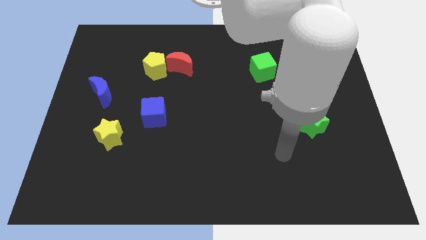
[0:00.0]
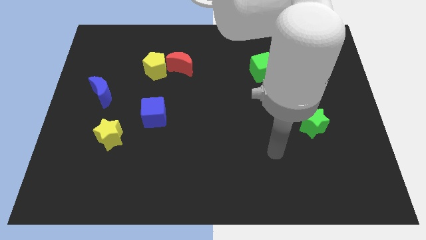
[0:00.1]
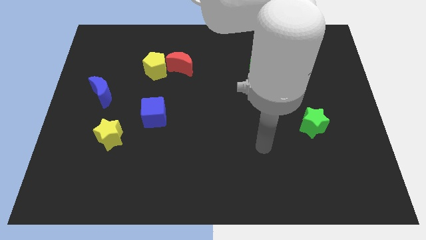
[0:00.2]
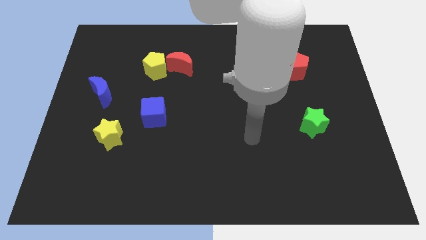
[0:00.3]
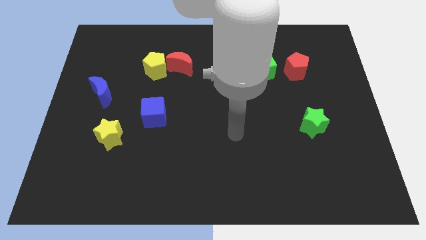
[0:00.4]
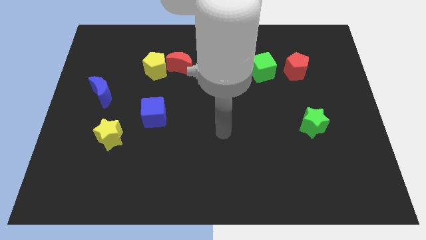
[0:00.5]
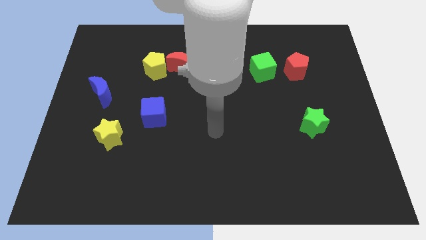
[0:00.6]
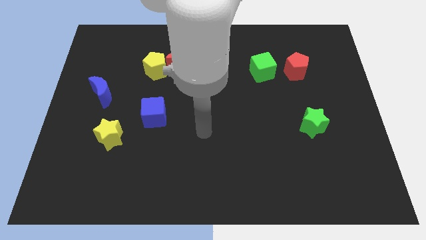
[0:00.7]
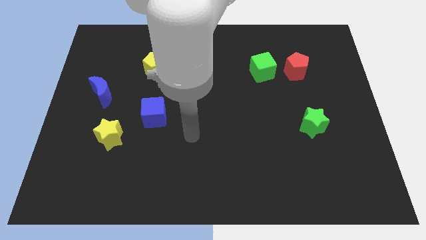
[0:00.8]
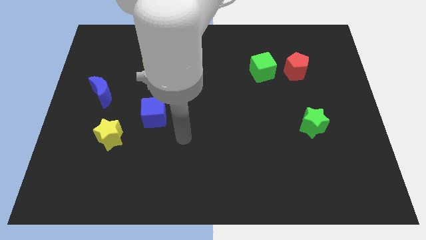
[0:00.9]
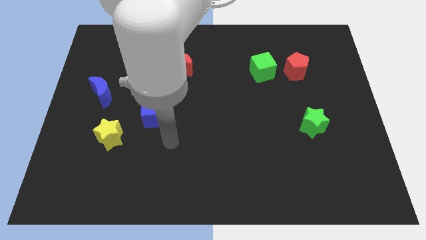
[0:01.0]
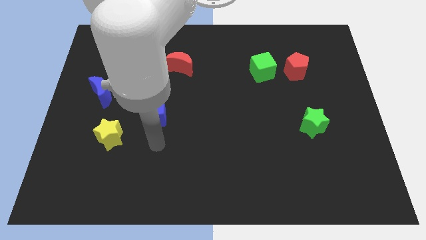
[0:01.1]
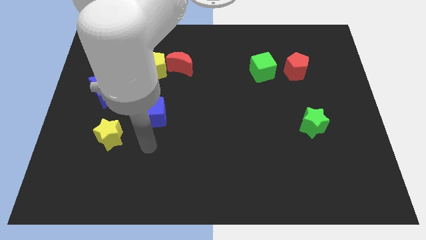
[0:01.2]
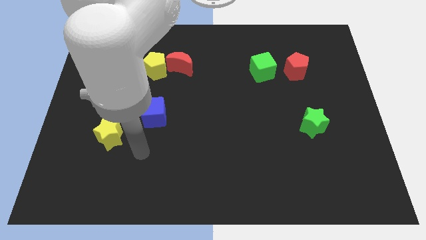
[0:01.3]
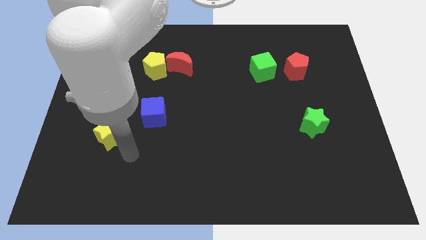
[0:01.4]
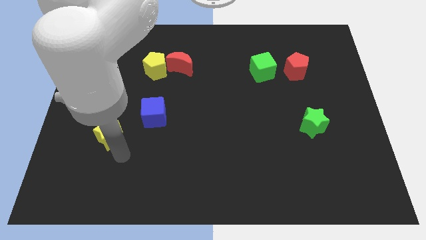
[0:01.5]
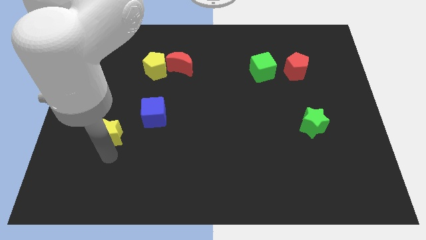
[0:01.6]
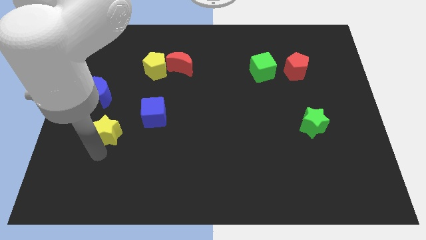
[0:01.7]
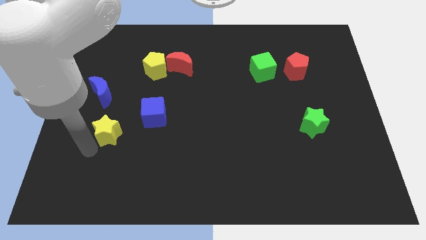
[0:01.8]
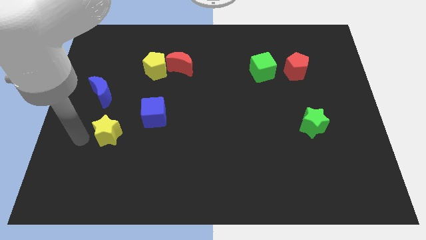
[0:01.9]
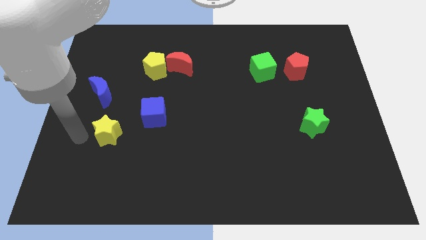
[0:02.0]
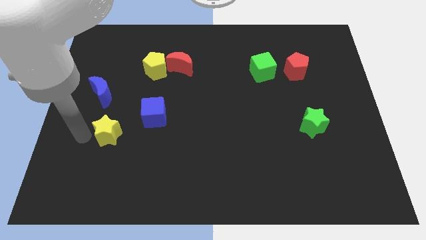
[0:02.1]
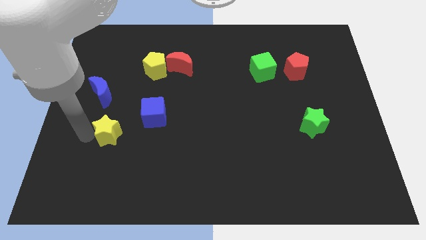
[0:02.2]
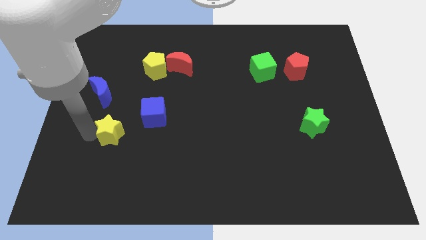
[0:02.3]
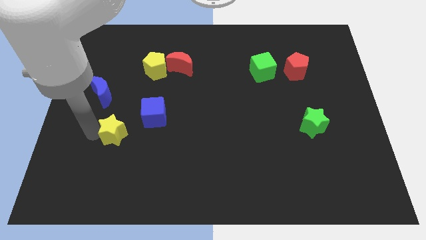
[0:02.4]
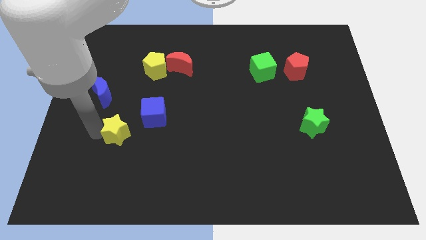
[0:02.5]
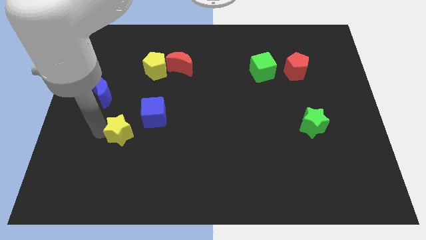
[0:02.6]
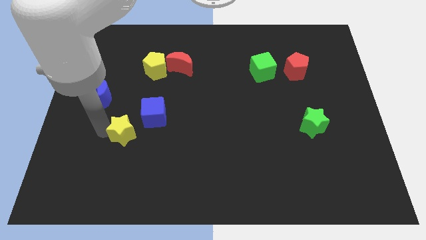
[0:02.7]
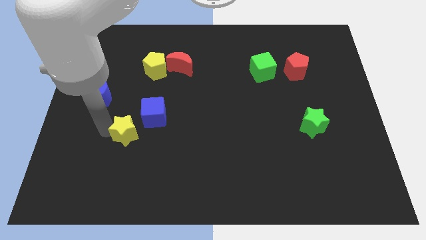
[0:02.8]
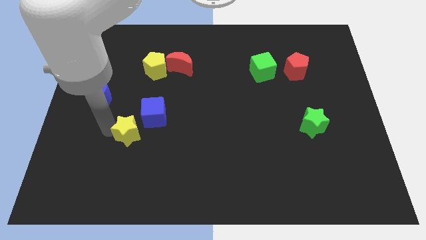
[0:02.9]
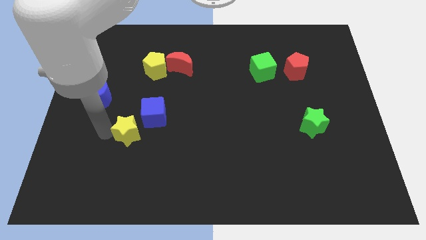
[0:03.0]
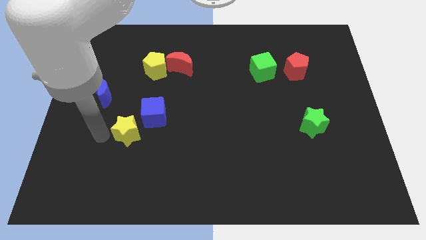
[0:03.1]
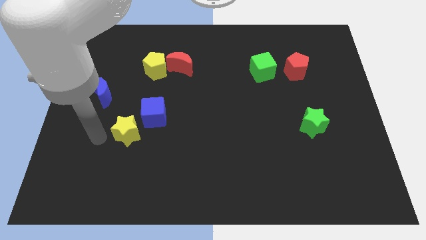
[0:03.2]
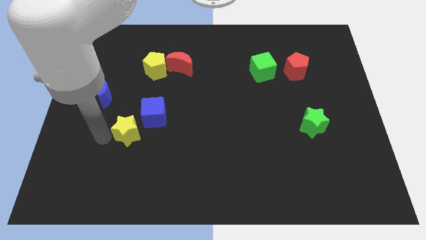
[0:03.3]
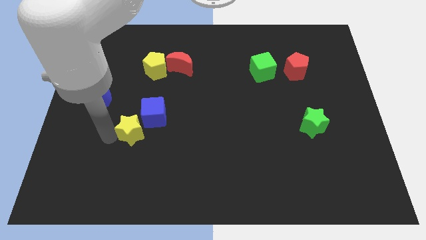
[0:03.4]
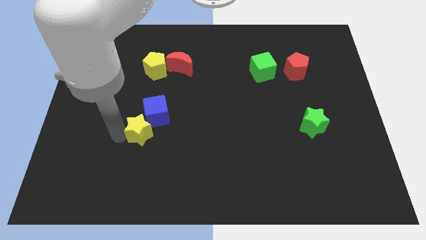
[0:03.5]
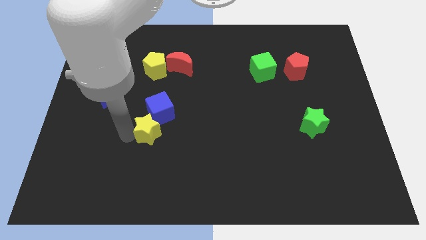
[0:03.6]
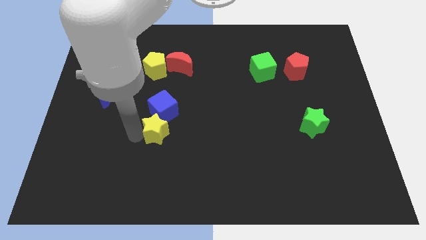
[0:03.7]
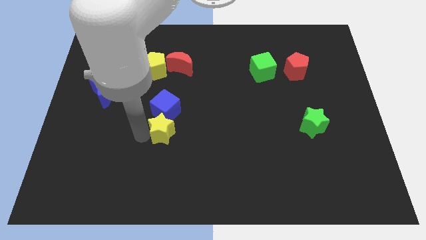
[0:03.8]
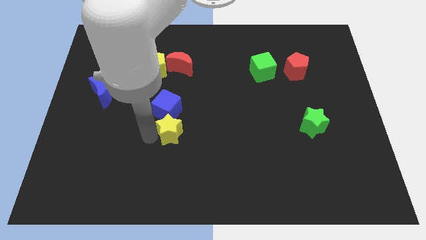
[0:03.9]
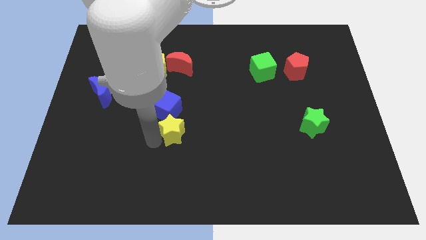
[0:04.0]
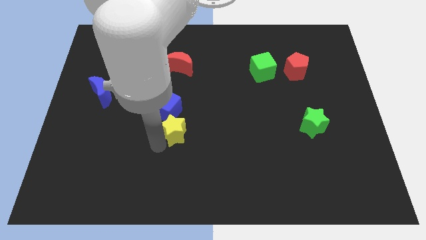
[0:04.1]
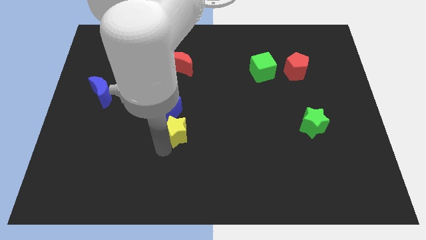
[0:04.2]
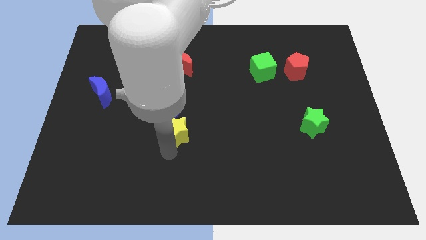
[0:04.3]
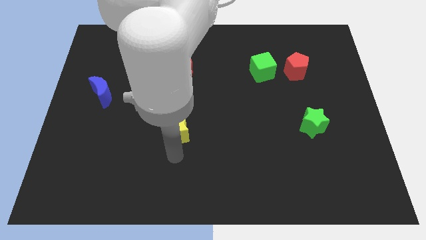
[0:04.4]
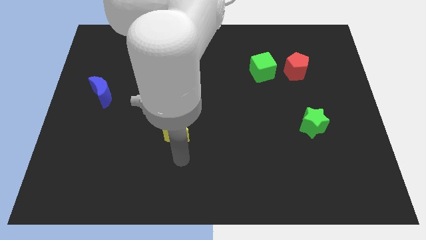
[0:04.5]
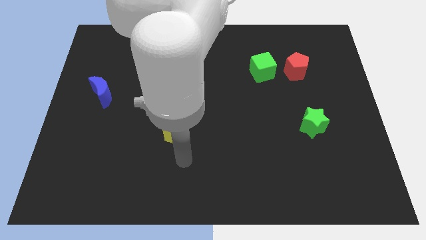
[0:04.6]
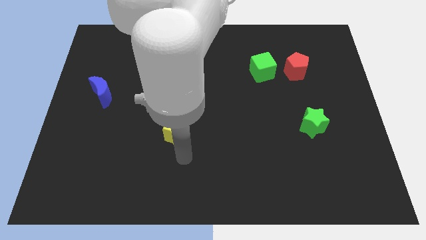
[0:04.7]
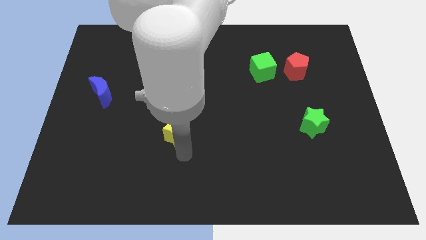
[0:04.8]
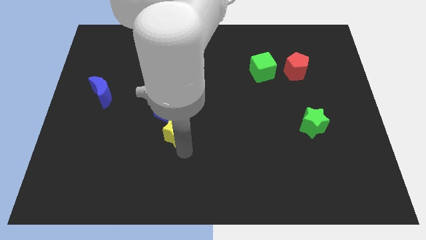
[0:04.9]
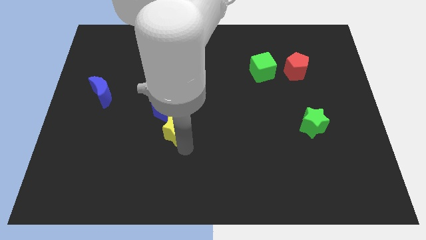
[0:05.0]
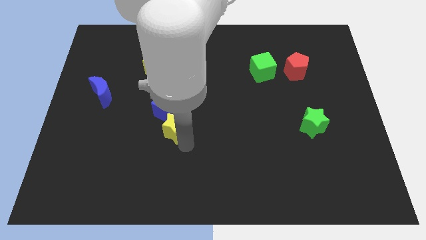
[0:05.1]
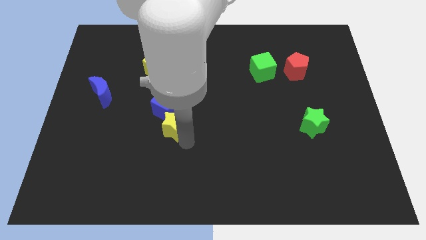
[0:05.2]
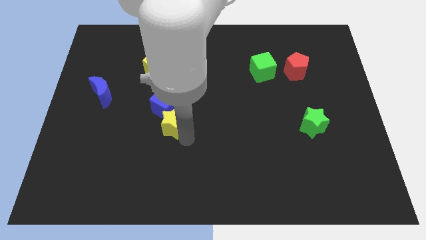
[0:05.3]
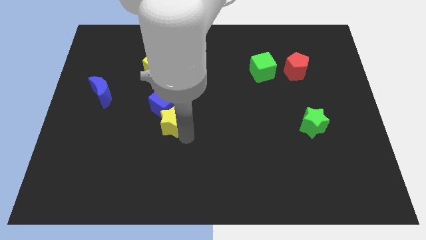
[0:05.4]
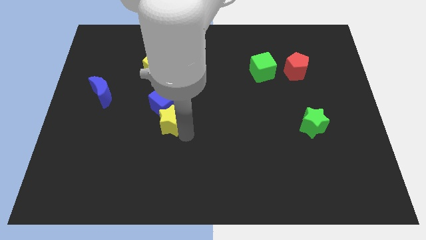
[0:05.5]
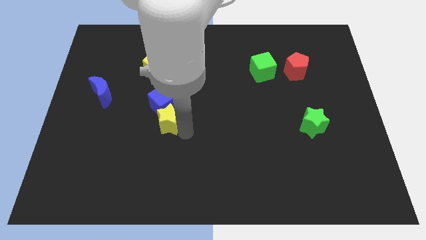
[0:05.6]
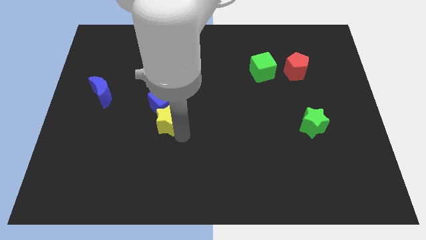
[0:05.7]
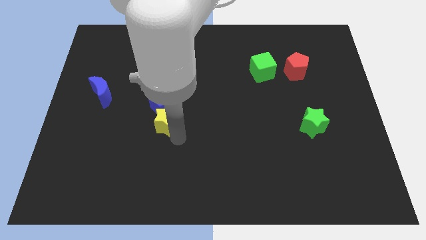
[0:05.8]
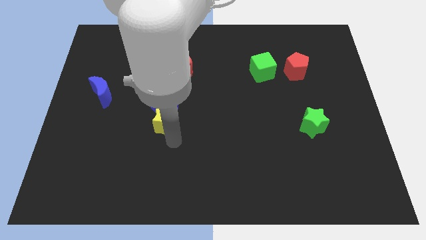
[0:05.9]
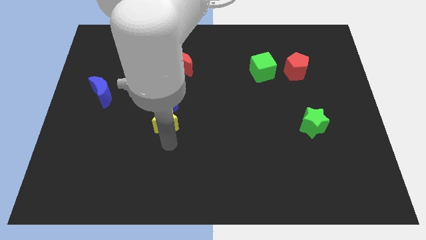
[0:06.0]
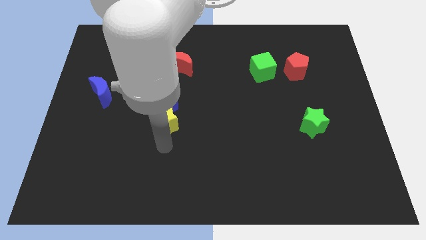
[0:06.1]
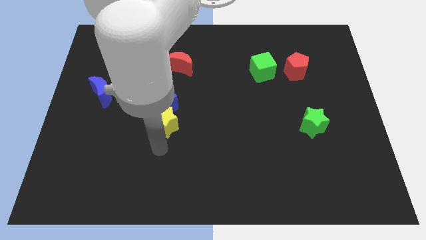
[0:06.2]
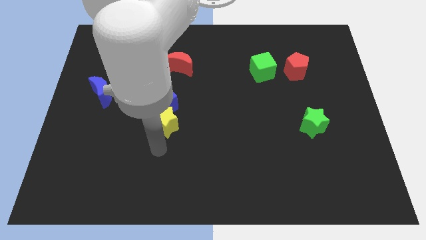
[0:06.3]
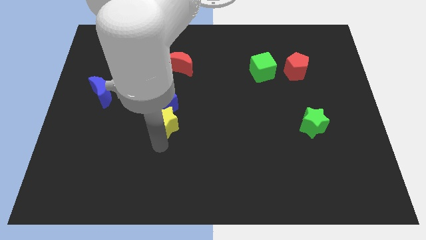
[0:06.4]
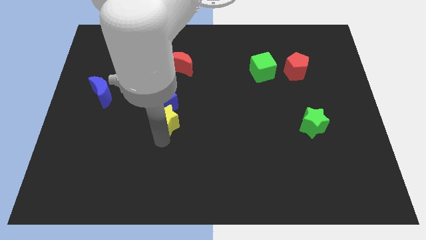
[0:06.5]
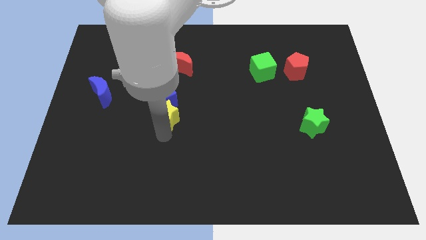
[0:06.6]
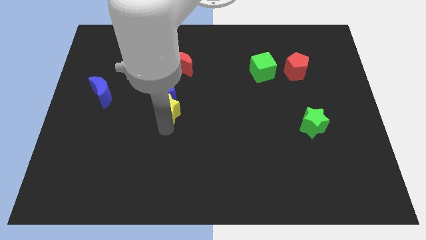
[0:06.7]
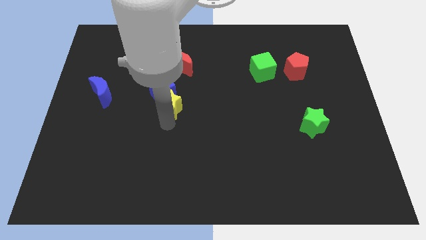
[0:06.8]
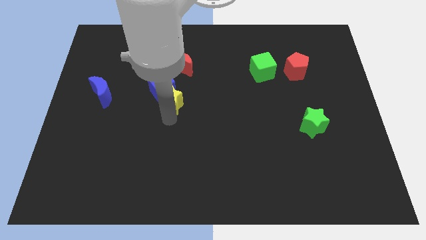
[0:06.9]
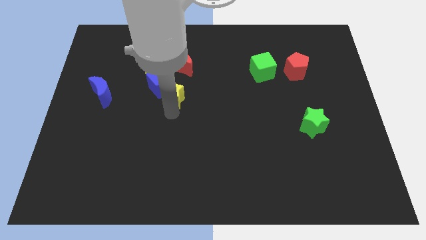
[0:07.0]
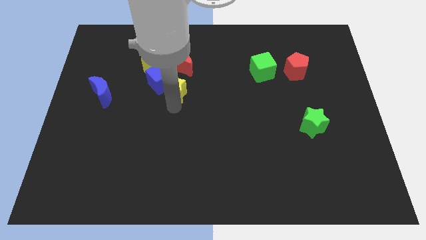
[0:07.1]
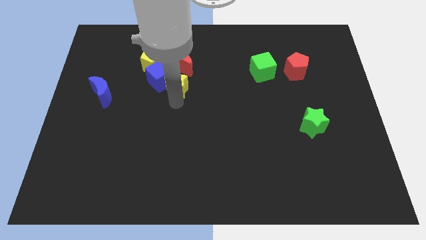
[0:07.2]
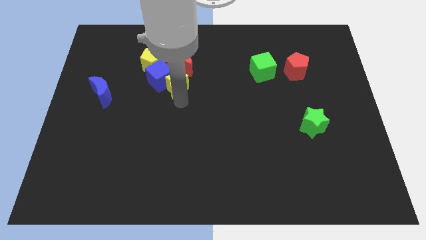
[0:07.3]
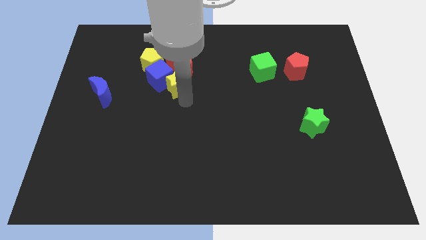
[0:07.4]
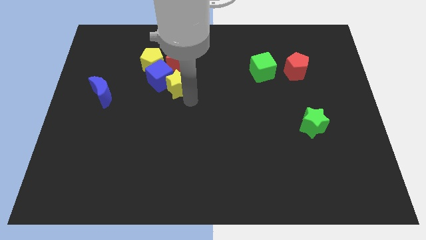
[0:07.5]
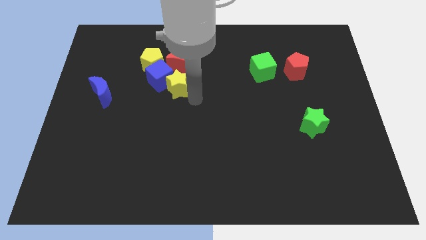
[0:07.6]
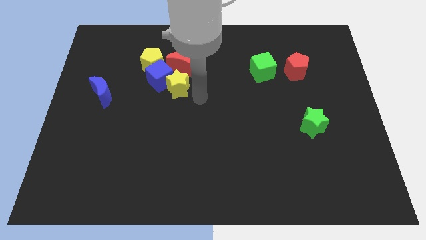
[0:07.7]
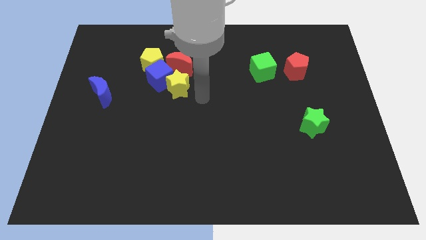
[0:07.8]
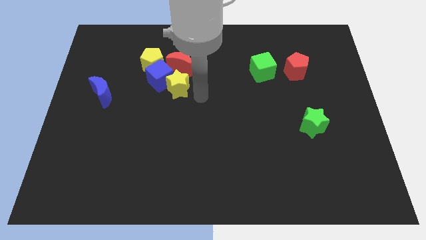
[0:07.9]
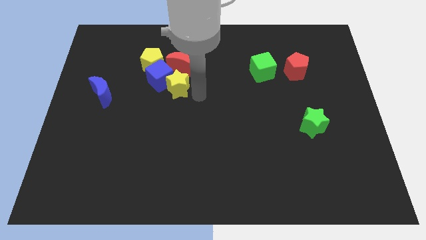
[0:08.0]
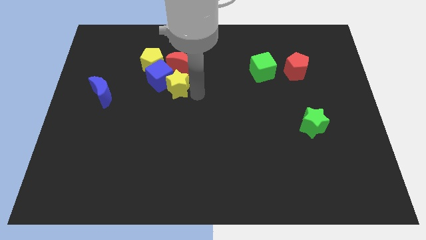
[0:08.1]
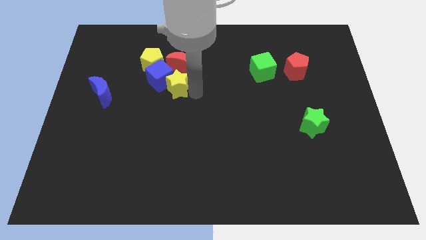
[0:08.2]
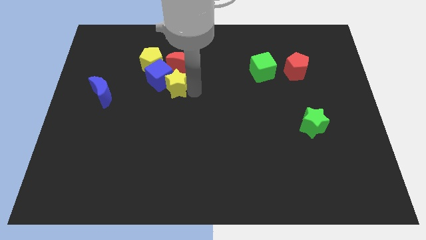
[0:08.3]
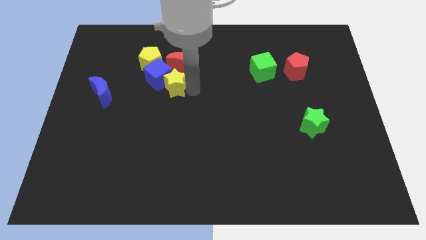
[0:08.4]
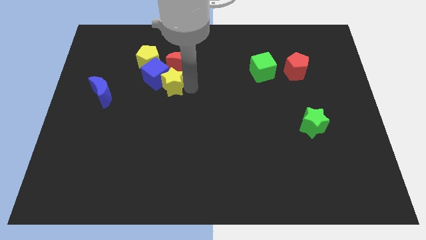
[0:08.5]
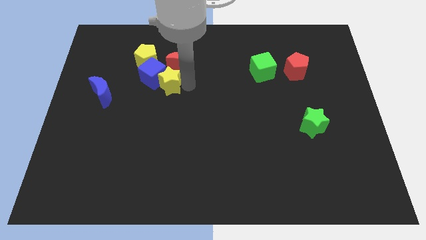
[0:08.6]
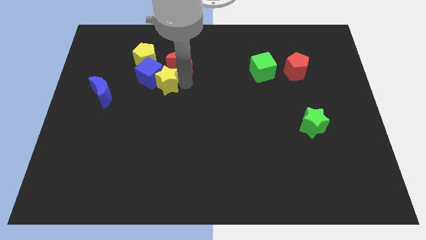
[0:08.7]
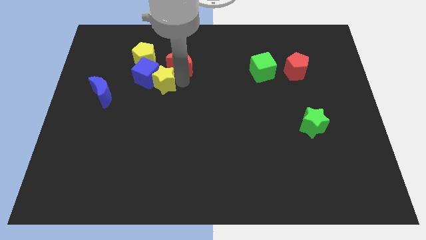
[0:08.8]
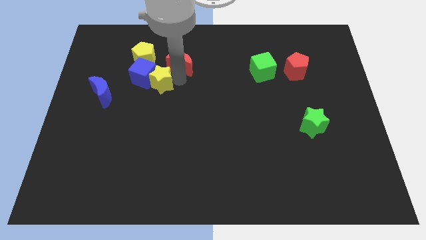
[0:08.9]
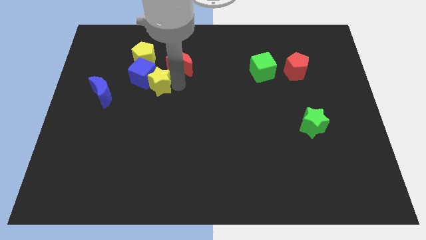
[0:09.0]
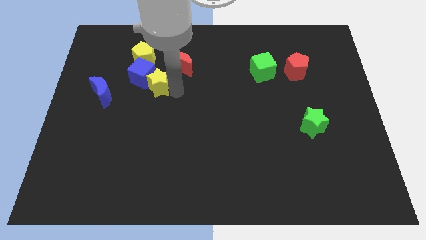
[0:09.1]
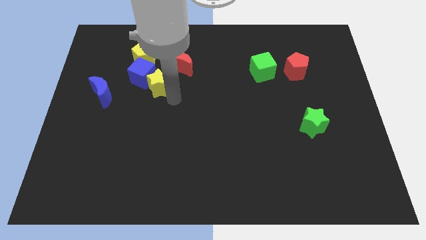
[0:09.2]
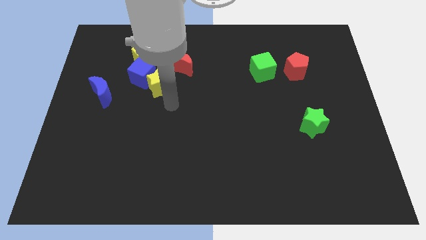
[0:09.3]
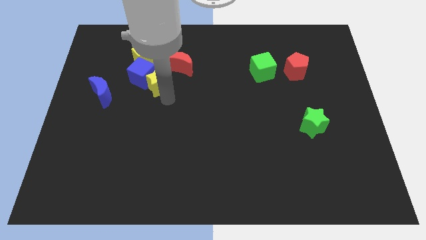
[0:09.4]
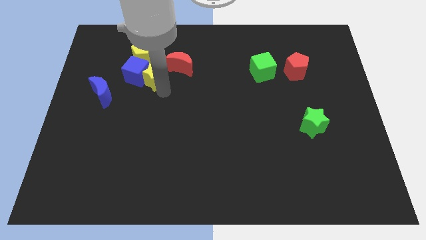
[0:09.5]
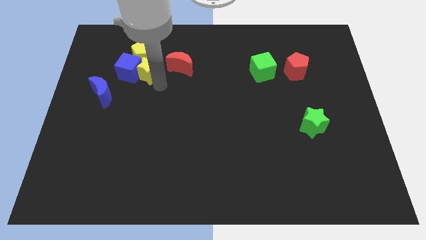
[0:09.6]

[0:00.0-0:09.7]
move the yellow star to the yellow pentagon
